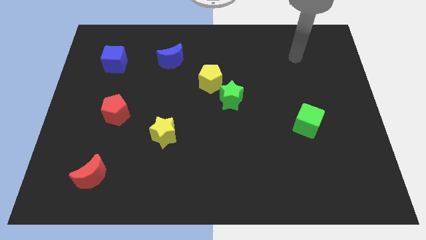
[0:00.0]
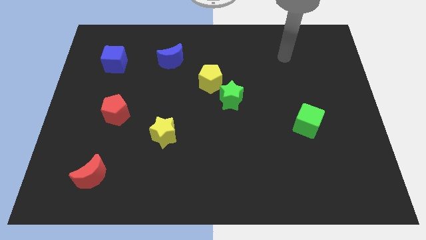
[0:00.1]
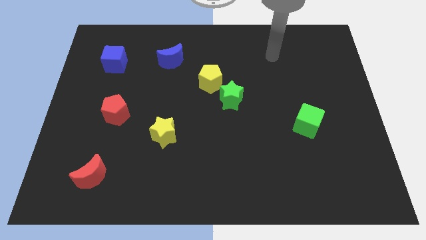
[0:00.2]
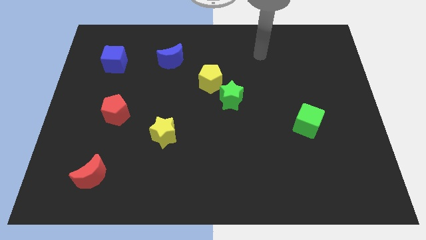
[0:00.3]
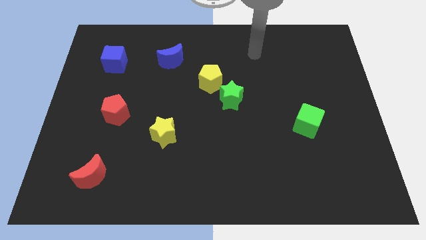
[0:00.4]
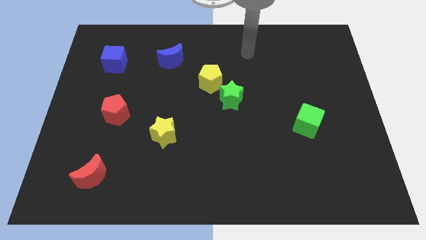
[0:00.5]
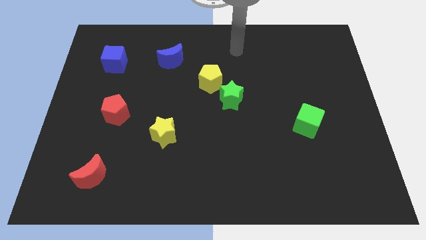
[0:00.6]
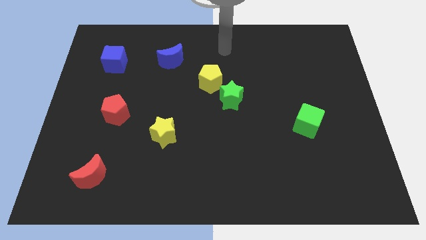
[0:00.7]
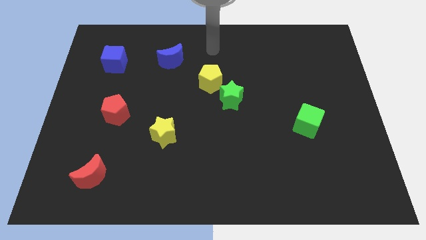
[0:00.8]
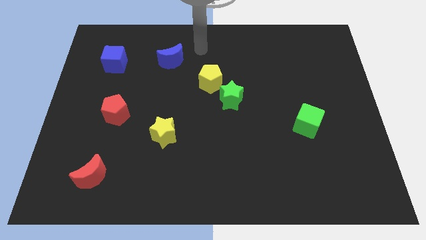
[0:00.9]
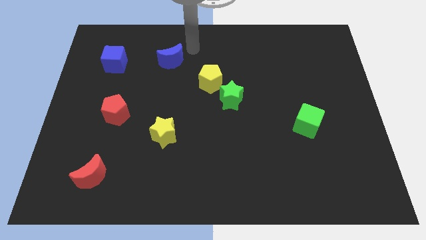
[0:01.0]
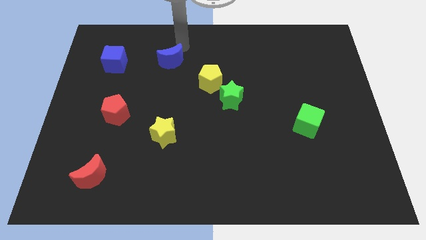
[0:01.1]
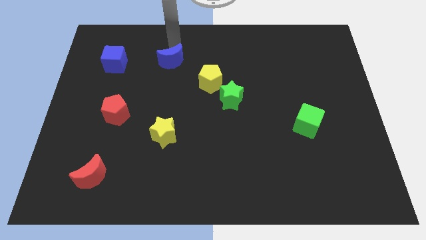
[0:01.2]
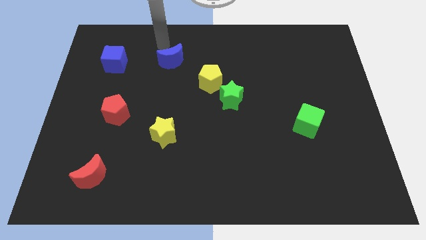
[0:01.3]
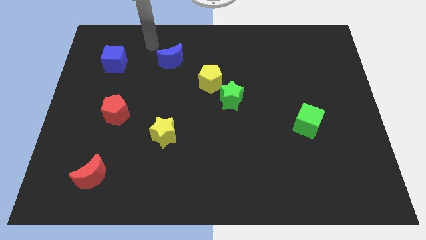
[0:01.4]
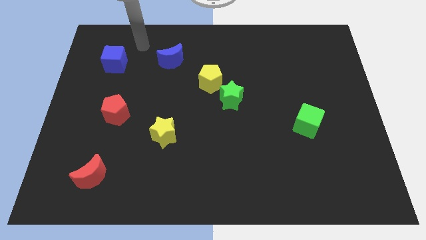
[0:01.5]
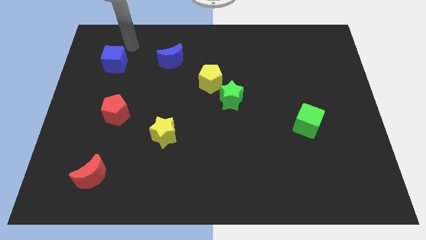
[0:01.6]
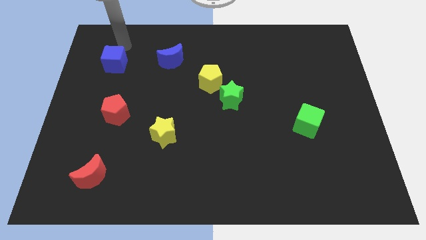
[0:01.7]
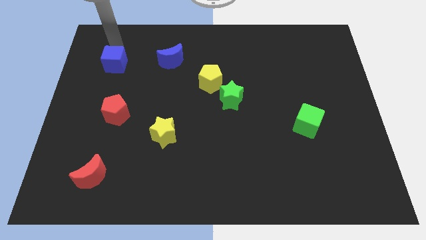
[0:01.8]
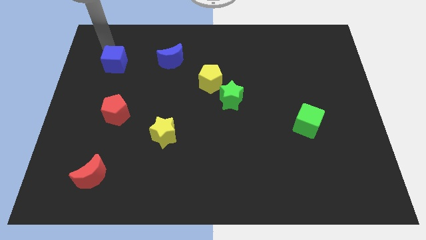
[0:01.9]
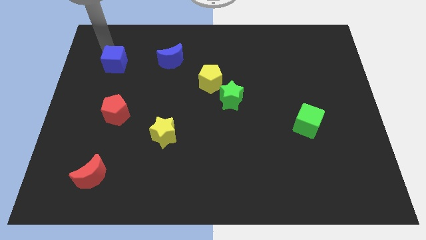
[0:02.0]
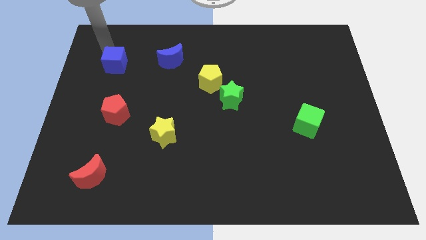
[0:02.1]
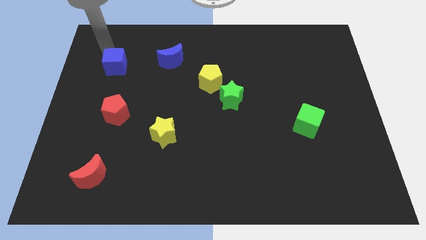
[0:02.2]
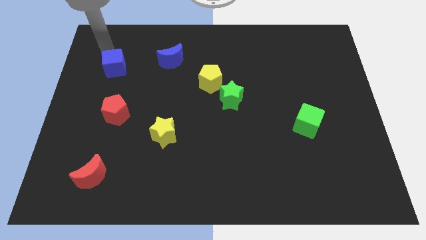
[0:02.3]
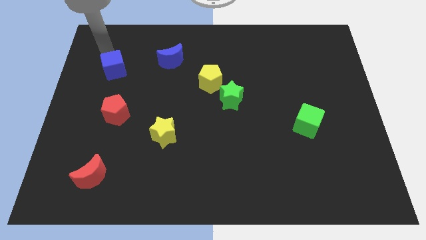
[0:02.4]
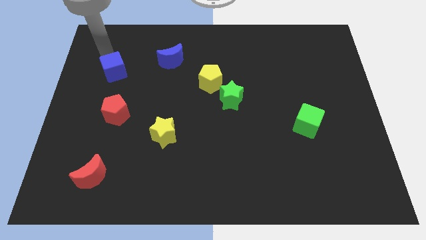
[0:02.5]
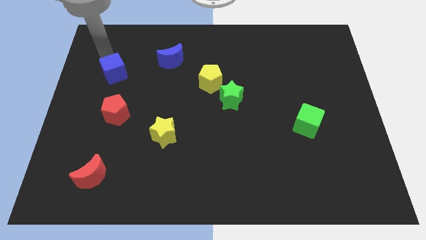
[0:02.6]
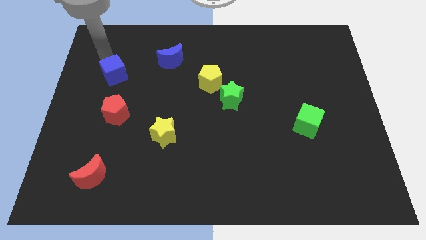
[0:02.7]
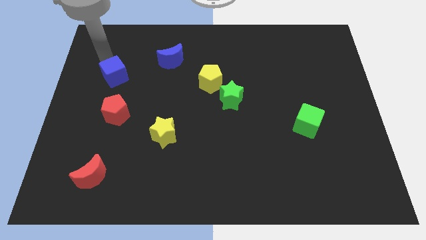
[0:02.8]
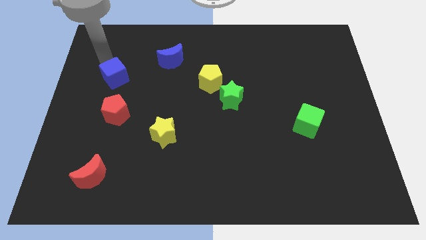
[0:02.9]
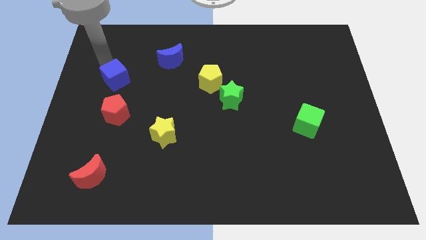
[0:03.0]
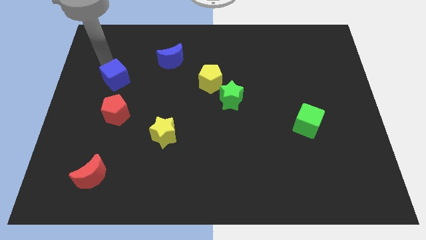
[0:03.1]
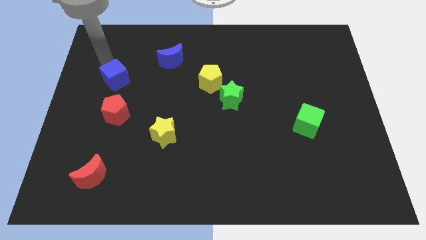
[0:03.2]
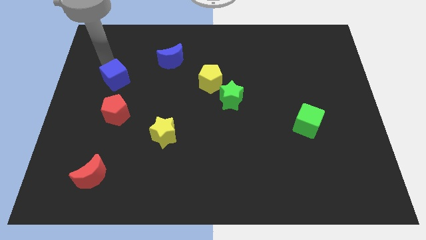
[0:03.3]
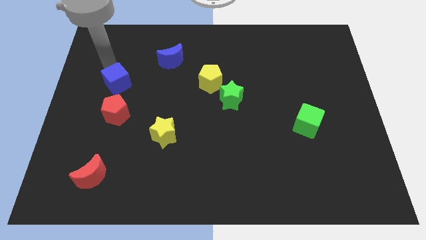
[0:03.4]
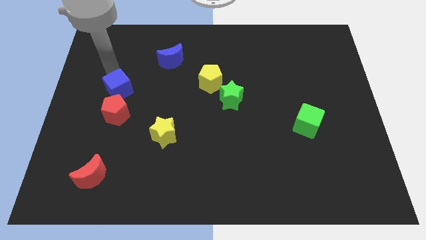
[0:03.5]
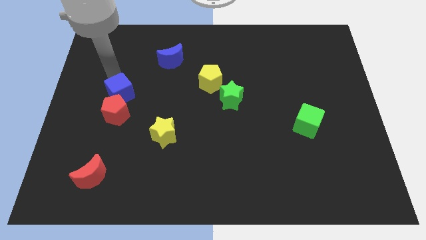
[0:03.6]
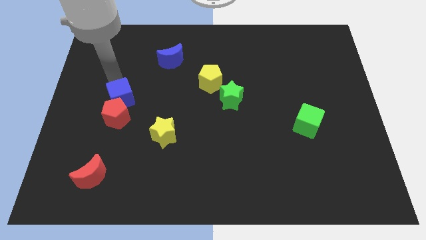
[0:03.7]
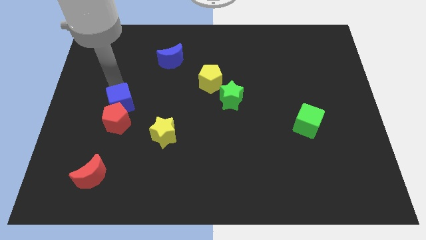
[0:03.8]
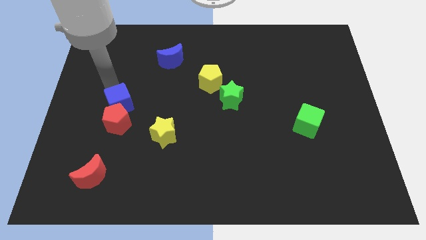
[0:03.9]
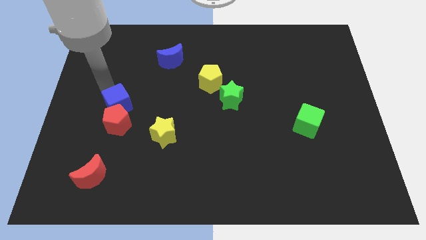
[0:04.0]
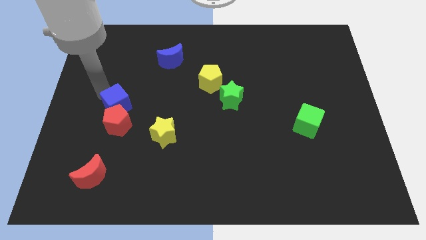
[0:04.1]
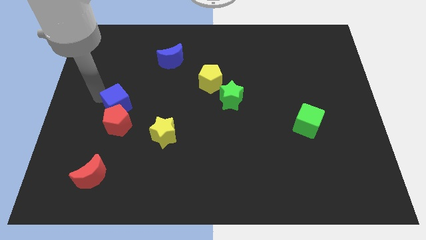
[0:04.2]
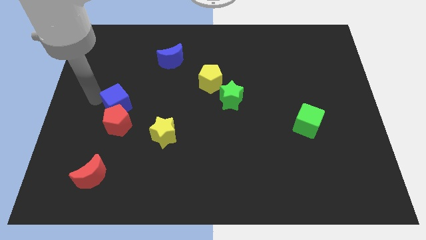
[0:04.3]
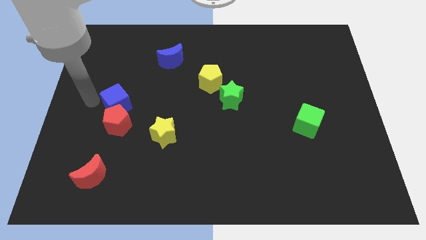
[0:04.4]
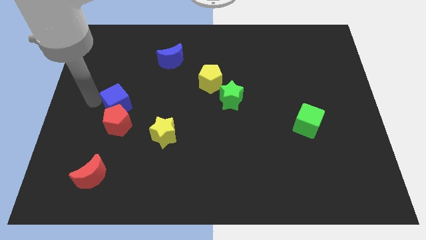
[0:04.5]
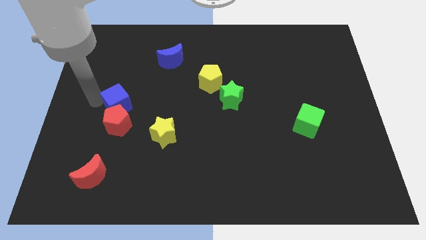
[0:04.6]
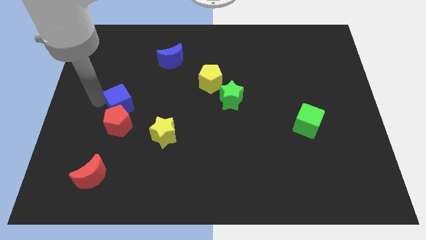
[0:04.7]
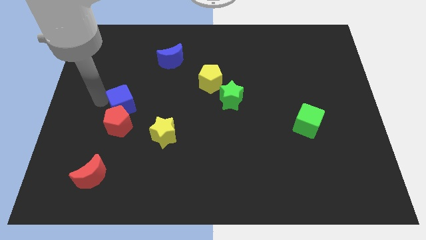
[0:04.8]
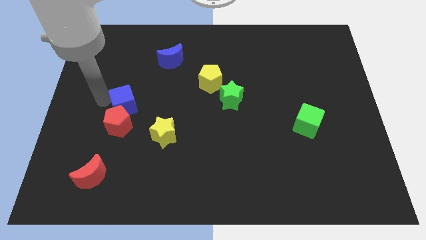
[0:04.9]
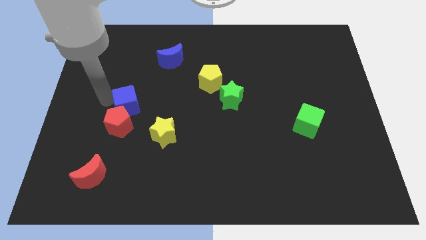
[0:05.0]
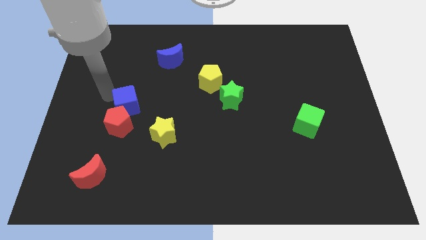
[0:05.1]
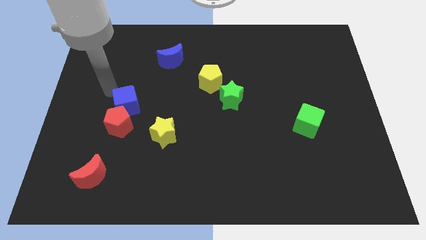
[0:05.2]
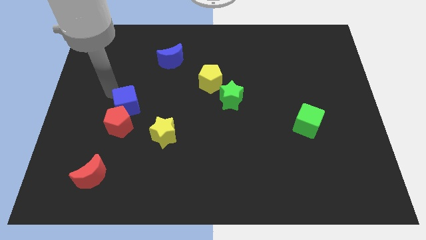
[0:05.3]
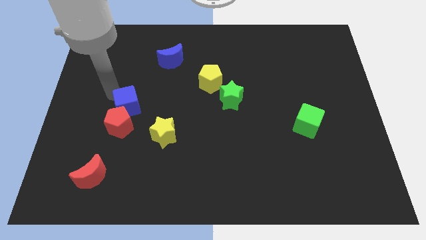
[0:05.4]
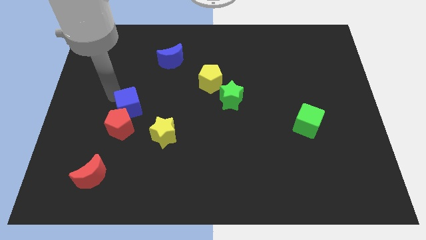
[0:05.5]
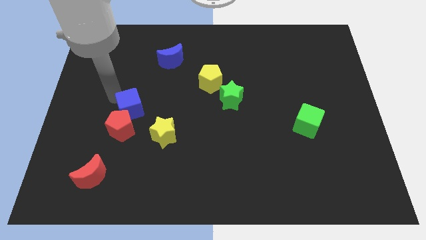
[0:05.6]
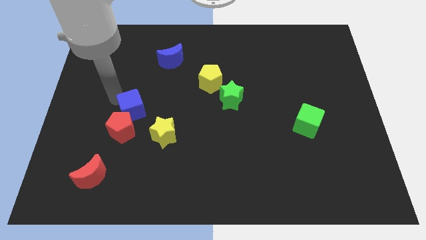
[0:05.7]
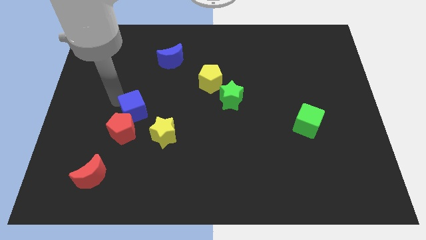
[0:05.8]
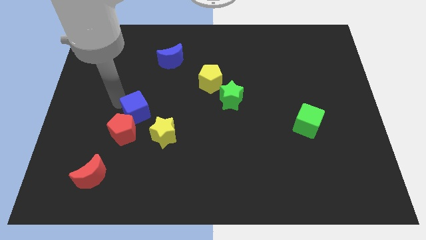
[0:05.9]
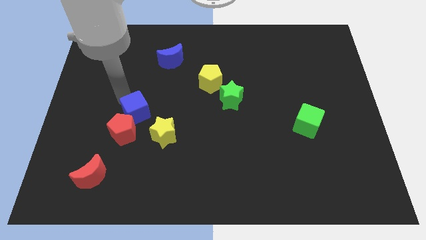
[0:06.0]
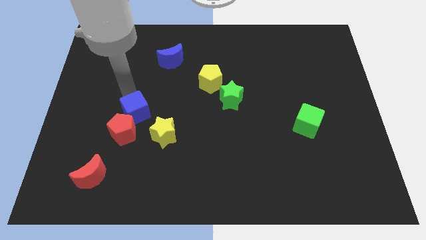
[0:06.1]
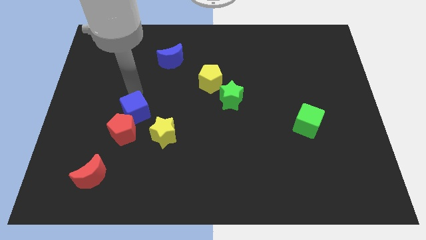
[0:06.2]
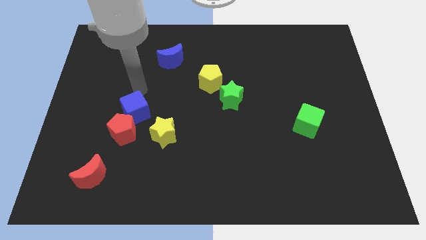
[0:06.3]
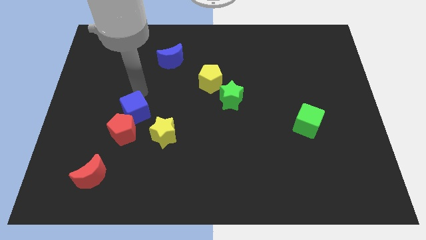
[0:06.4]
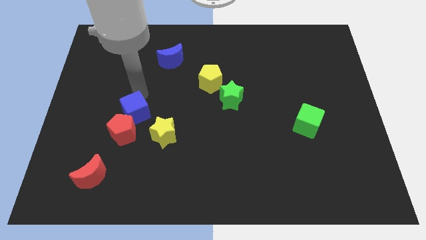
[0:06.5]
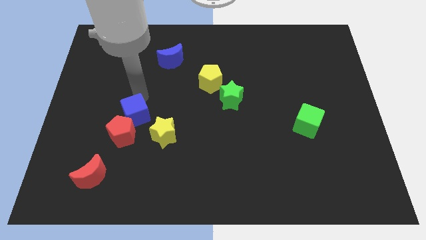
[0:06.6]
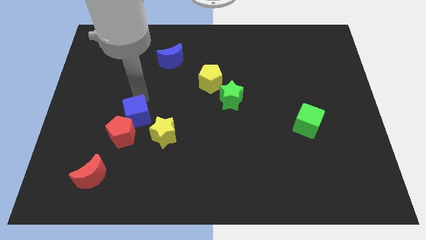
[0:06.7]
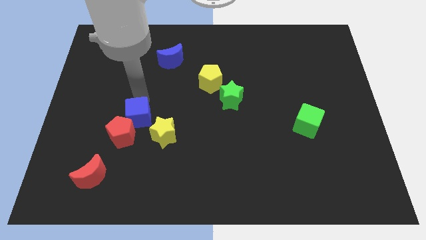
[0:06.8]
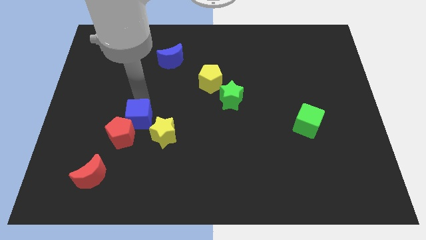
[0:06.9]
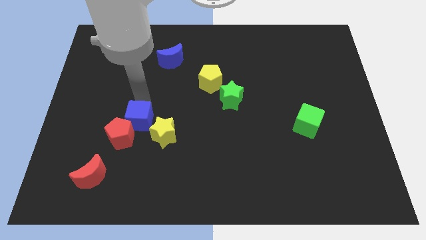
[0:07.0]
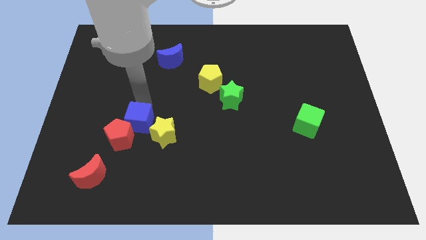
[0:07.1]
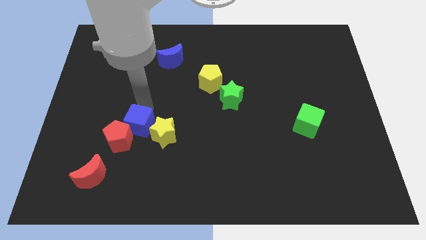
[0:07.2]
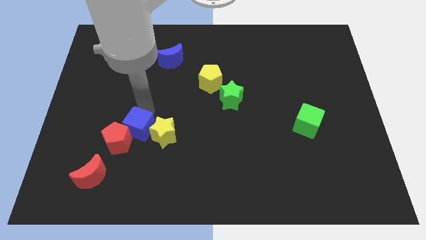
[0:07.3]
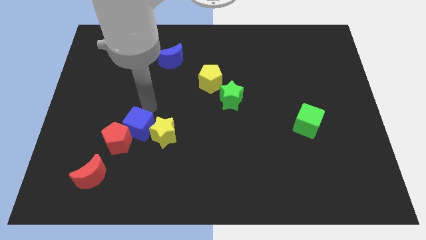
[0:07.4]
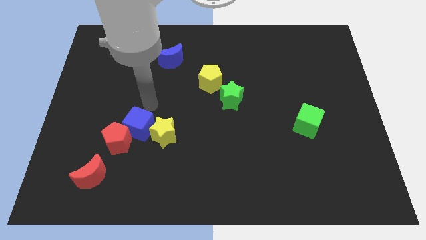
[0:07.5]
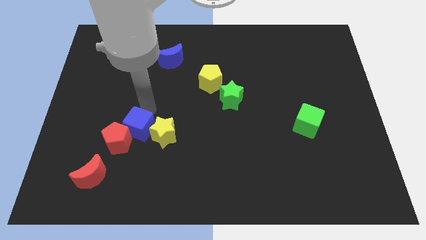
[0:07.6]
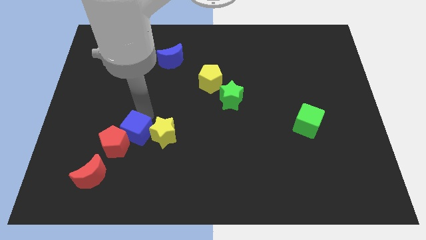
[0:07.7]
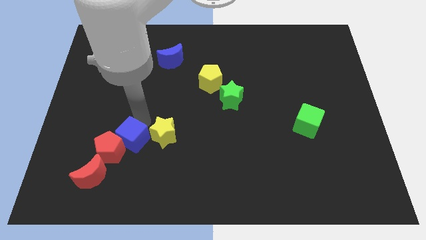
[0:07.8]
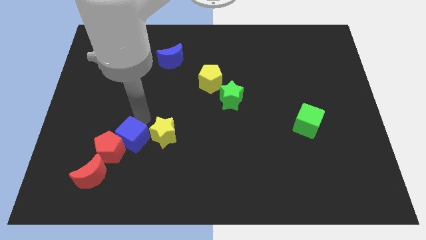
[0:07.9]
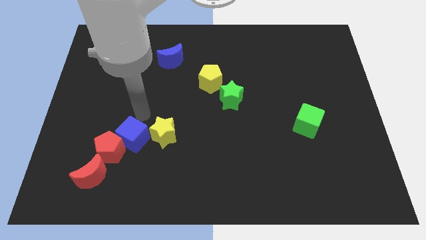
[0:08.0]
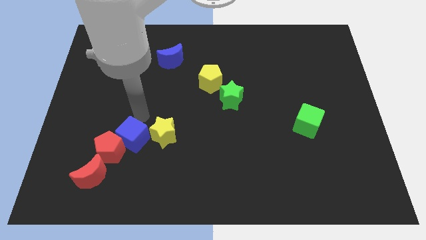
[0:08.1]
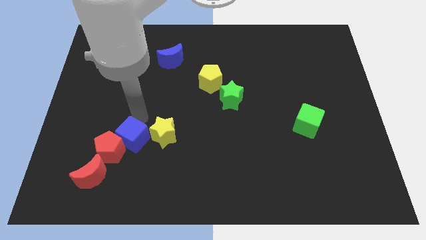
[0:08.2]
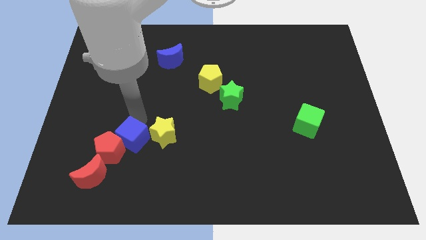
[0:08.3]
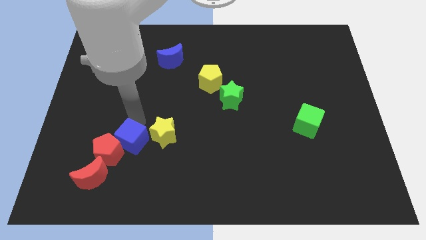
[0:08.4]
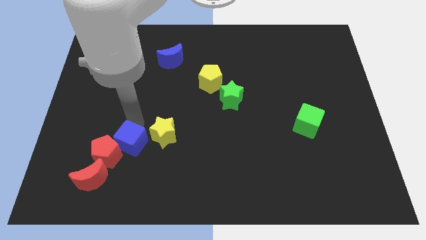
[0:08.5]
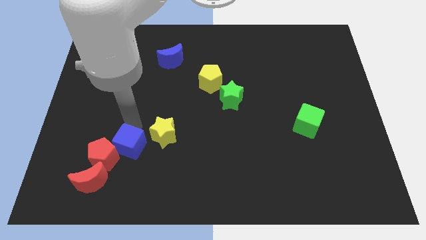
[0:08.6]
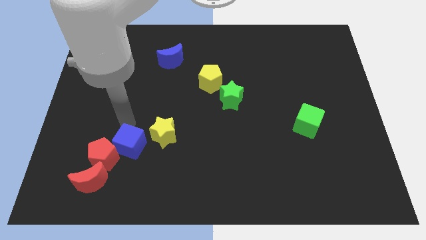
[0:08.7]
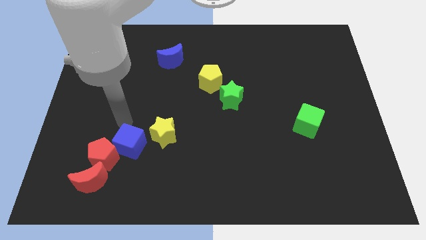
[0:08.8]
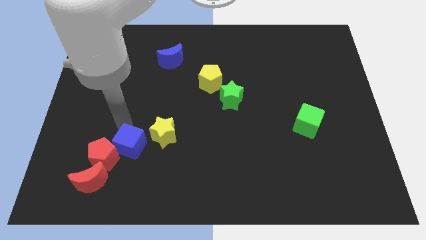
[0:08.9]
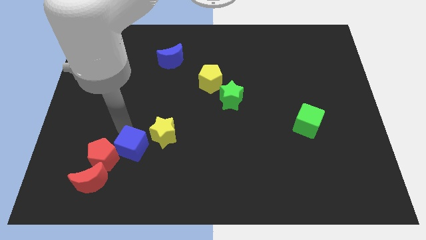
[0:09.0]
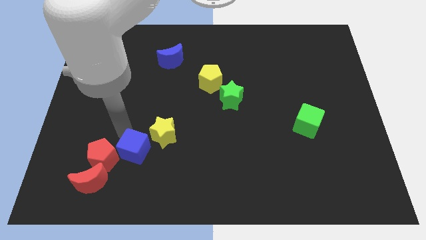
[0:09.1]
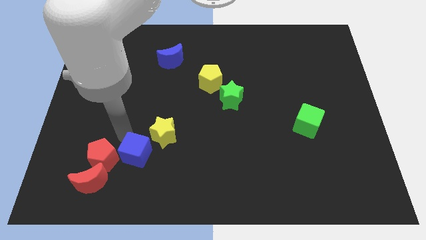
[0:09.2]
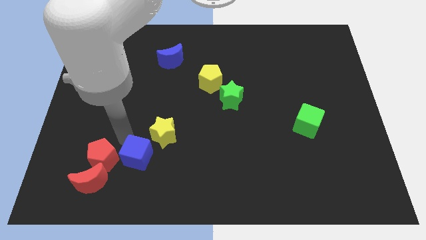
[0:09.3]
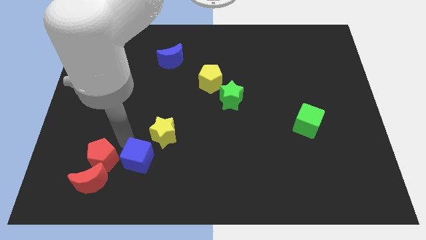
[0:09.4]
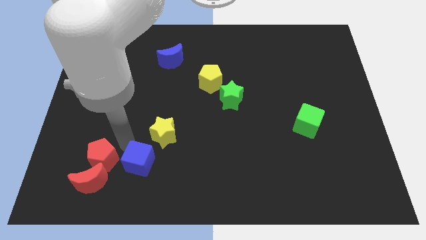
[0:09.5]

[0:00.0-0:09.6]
push the blue cube right of the red moon
